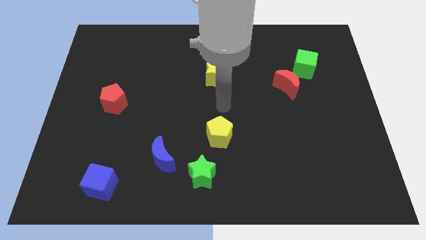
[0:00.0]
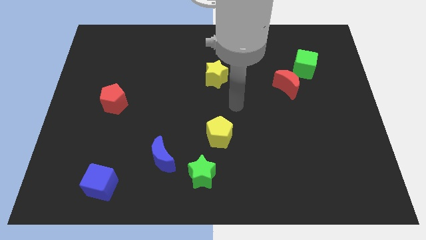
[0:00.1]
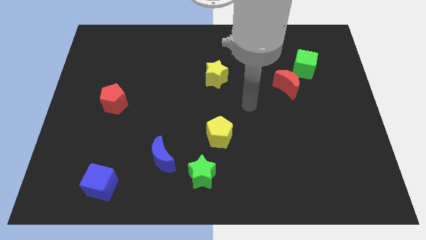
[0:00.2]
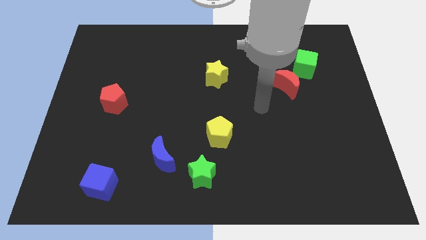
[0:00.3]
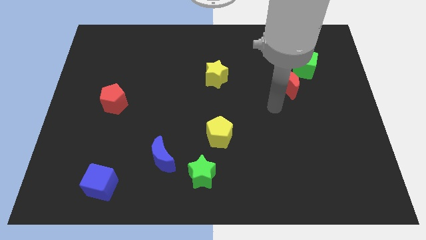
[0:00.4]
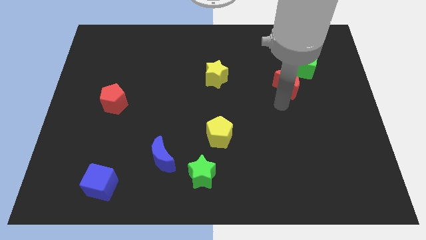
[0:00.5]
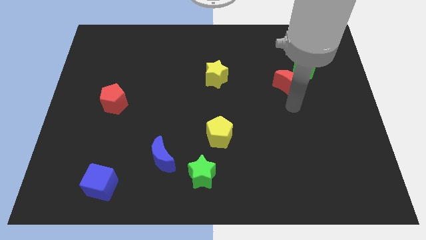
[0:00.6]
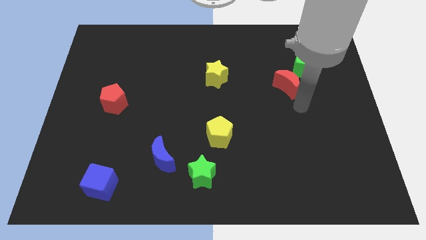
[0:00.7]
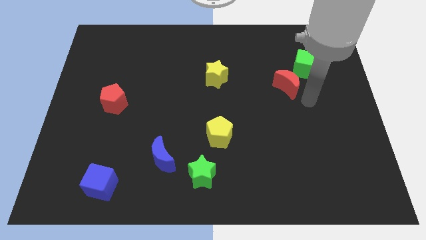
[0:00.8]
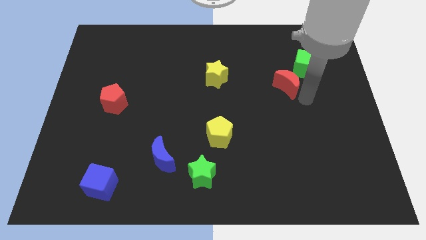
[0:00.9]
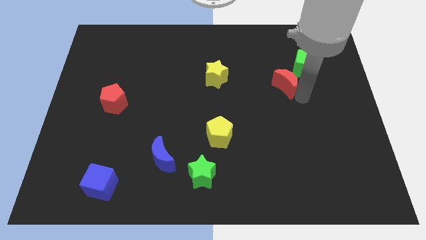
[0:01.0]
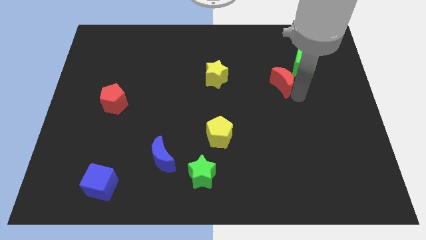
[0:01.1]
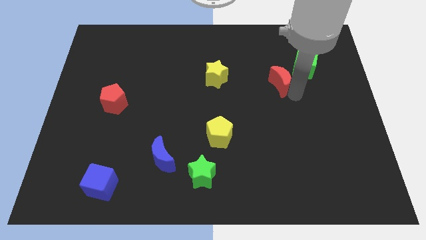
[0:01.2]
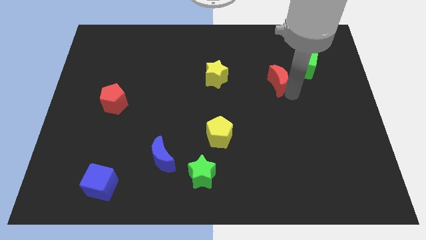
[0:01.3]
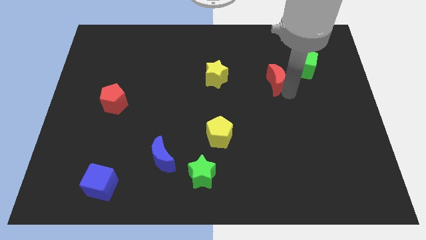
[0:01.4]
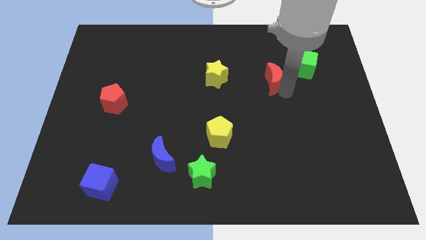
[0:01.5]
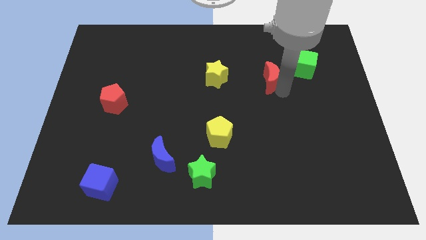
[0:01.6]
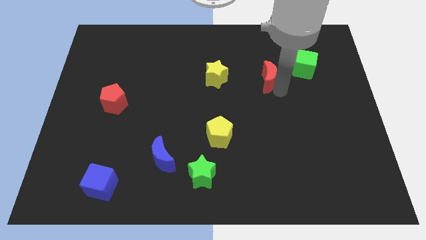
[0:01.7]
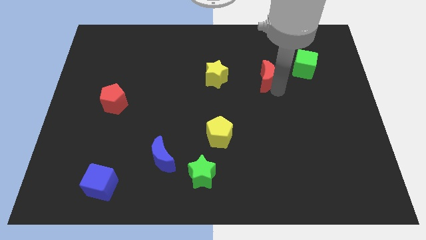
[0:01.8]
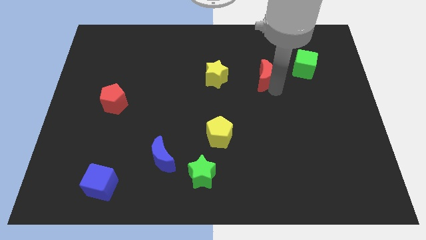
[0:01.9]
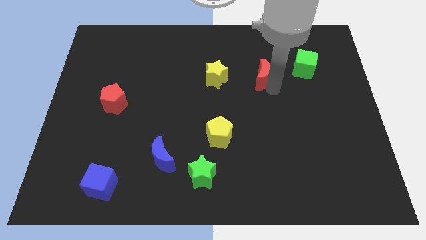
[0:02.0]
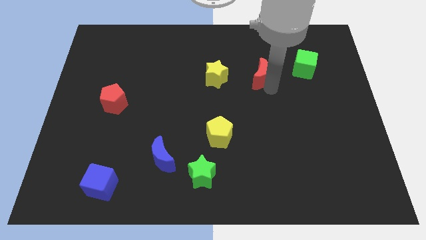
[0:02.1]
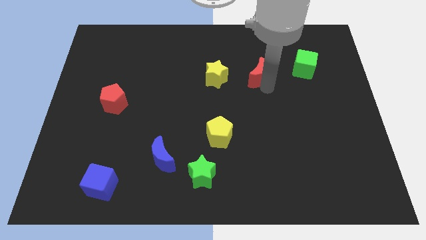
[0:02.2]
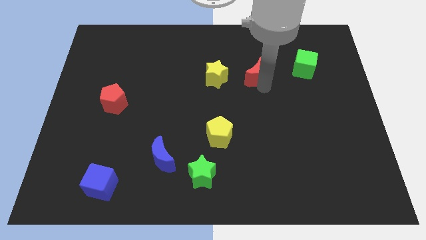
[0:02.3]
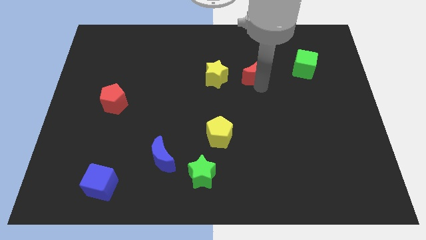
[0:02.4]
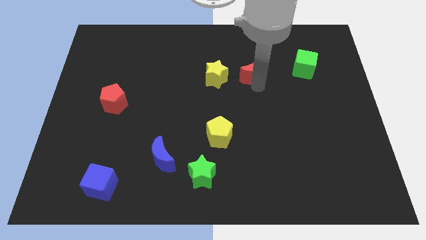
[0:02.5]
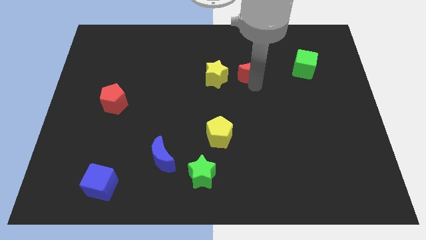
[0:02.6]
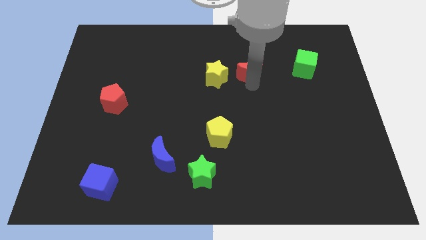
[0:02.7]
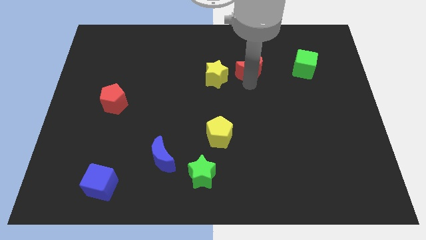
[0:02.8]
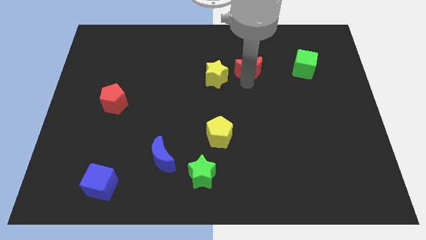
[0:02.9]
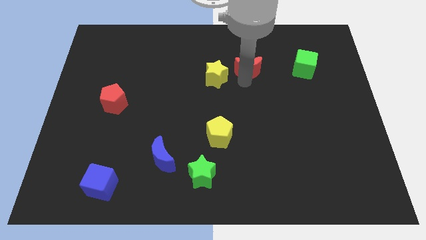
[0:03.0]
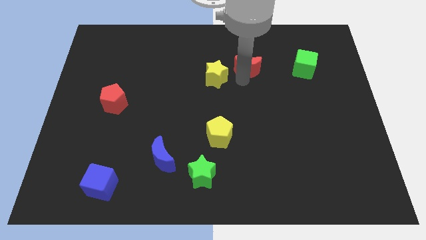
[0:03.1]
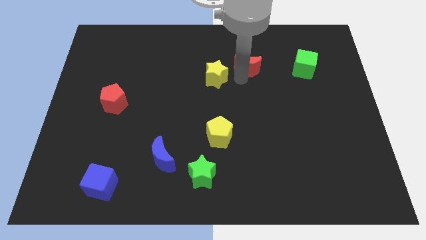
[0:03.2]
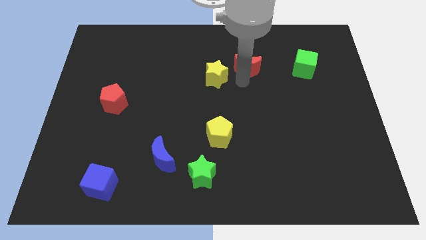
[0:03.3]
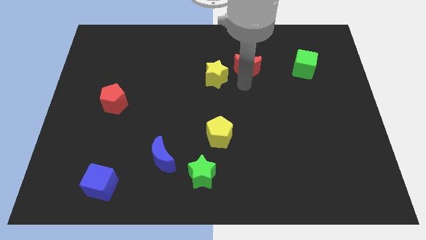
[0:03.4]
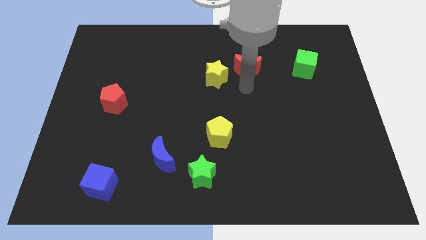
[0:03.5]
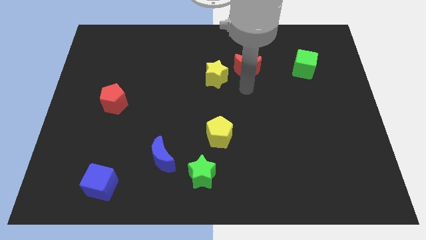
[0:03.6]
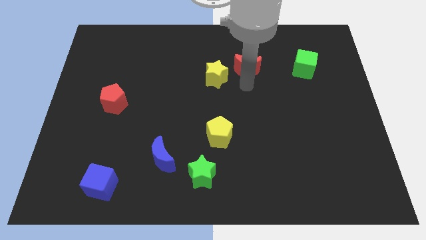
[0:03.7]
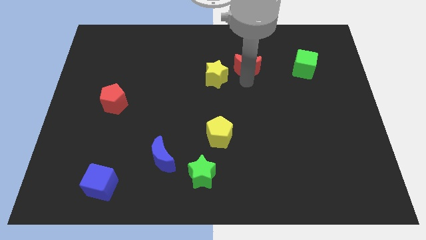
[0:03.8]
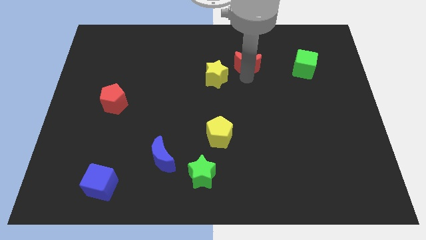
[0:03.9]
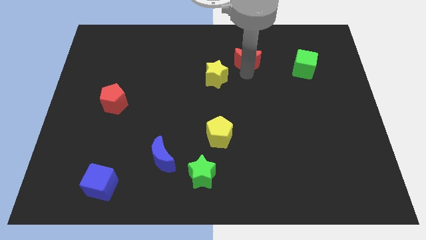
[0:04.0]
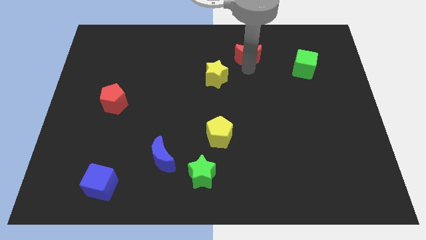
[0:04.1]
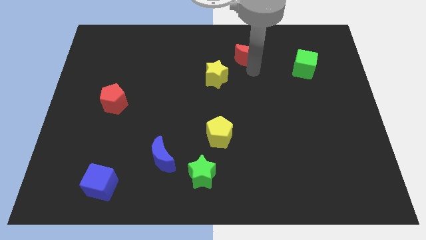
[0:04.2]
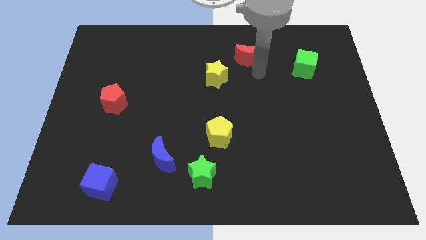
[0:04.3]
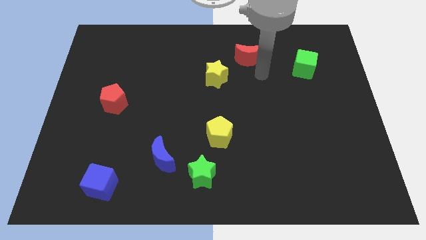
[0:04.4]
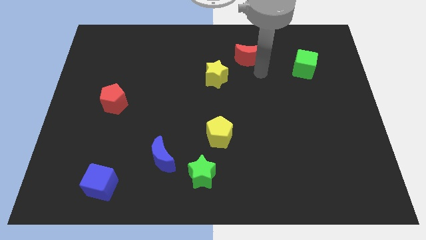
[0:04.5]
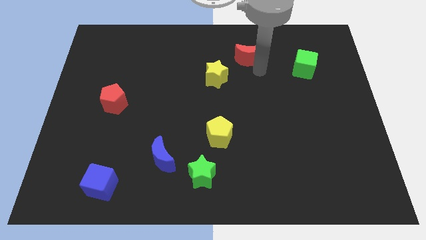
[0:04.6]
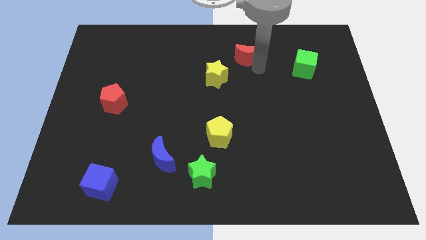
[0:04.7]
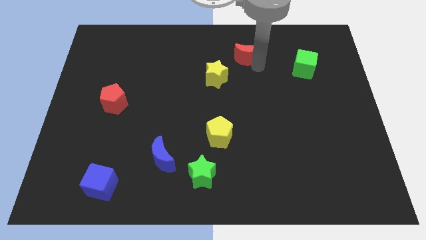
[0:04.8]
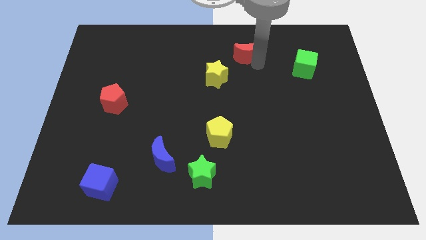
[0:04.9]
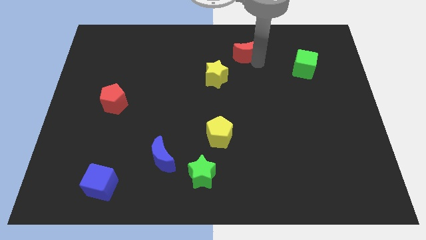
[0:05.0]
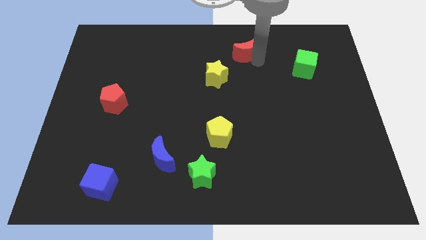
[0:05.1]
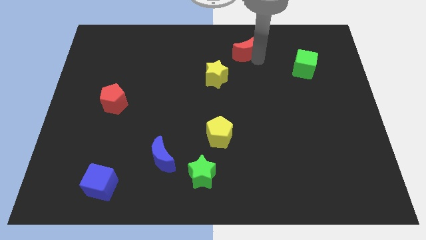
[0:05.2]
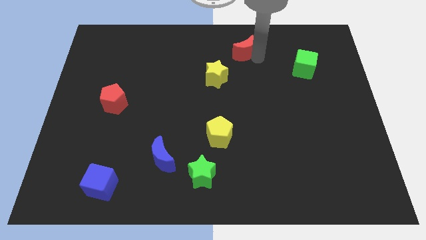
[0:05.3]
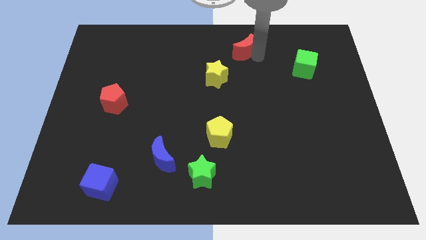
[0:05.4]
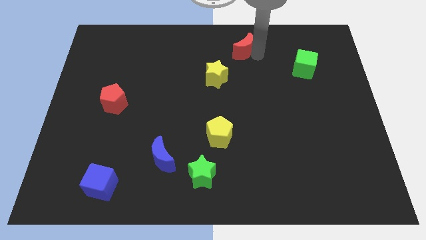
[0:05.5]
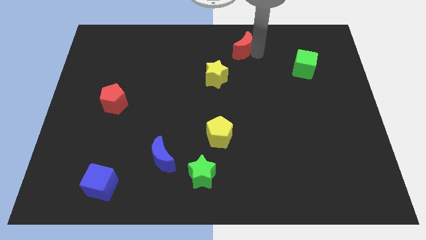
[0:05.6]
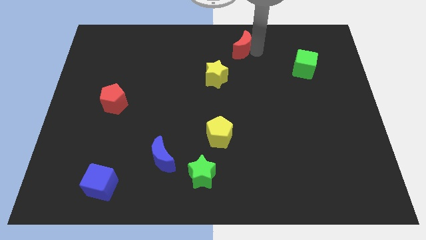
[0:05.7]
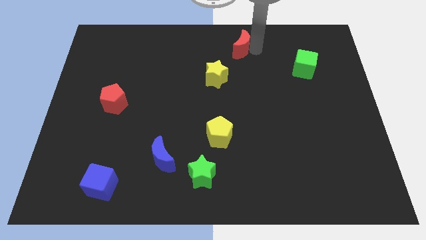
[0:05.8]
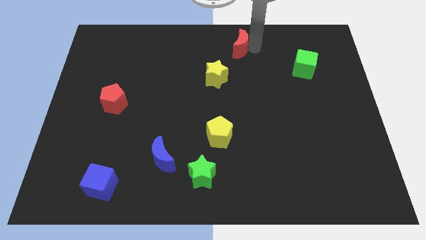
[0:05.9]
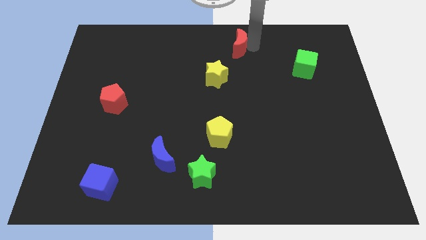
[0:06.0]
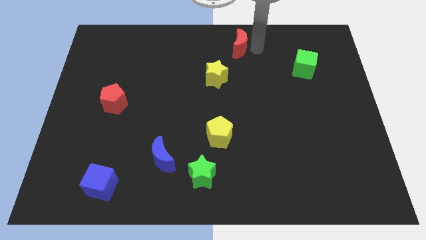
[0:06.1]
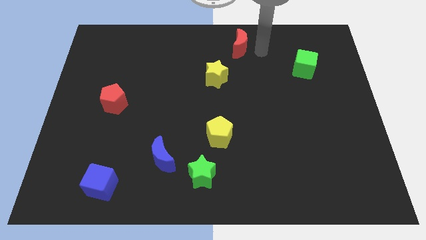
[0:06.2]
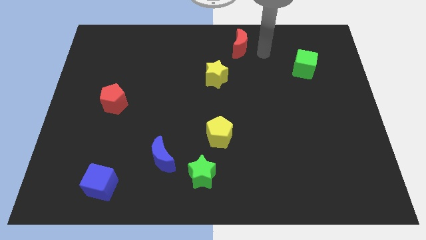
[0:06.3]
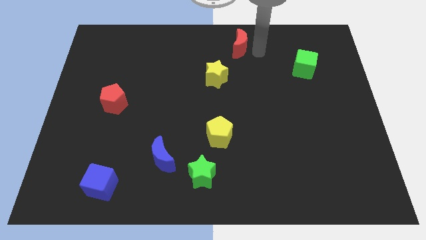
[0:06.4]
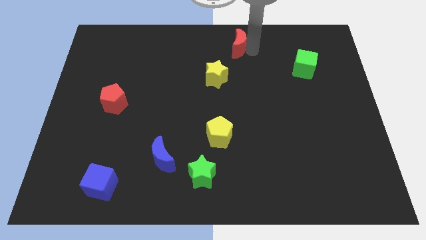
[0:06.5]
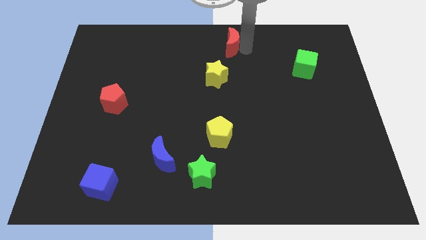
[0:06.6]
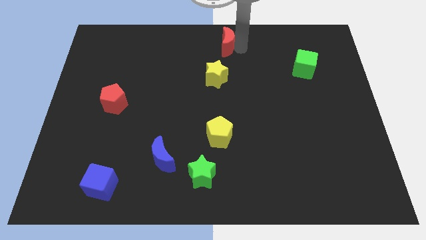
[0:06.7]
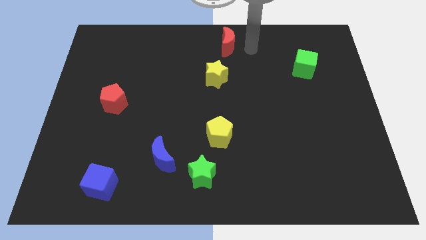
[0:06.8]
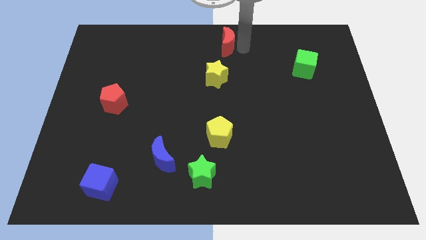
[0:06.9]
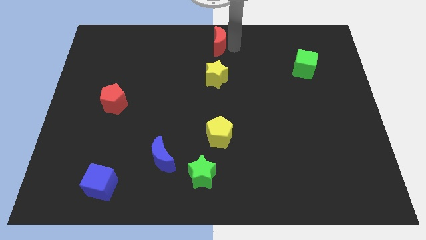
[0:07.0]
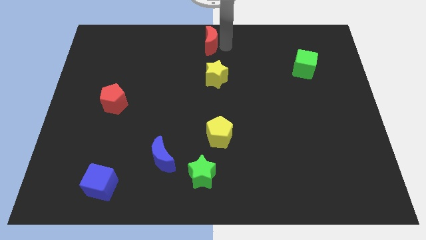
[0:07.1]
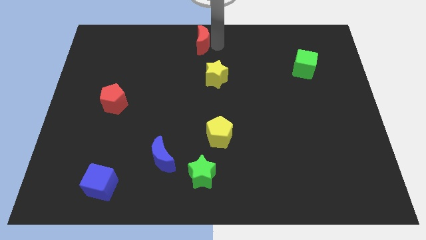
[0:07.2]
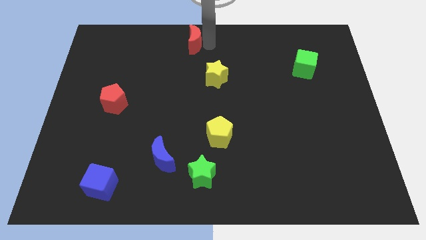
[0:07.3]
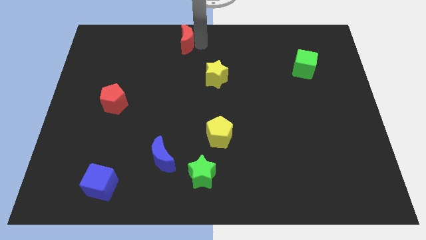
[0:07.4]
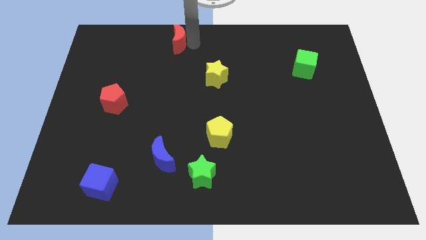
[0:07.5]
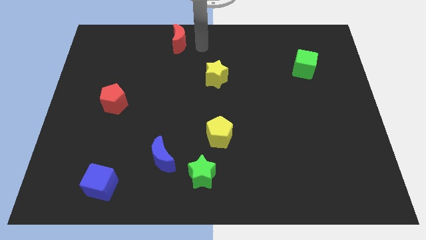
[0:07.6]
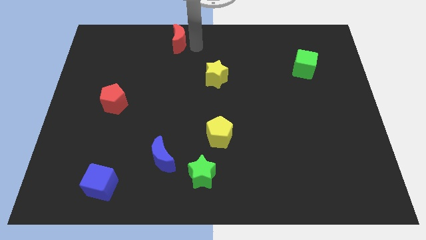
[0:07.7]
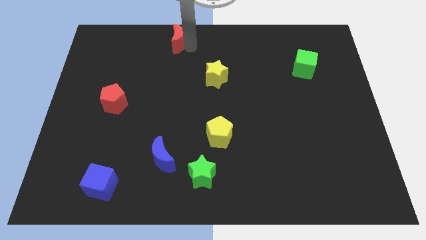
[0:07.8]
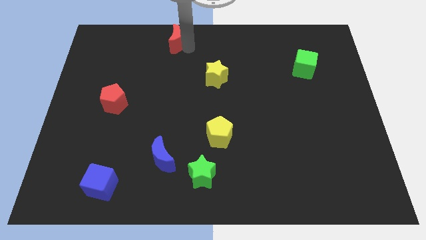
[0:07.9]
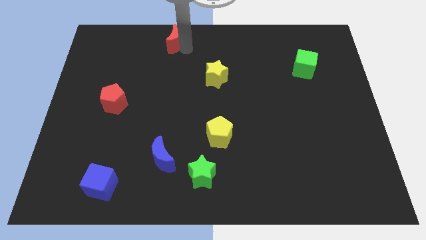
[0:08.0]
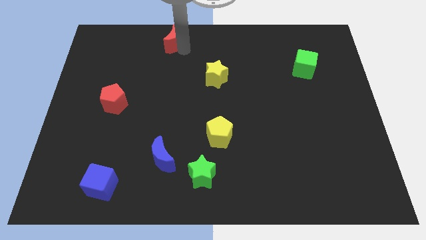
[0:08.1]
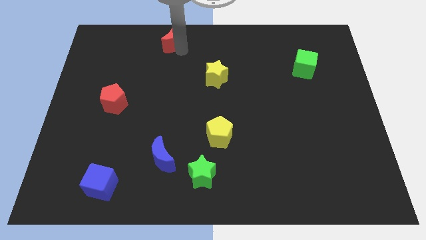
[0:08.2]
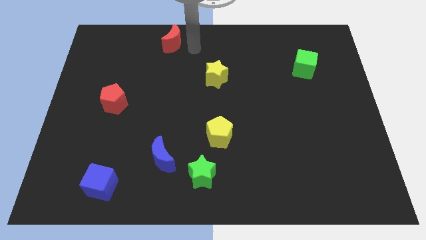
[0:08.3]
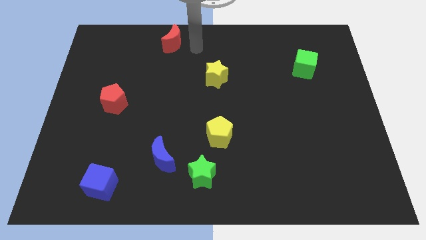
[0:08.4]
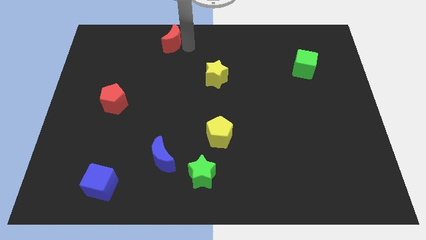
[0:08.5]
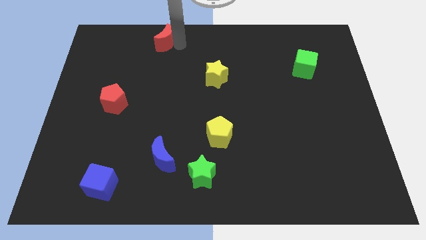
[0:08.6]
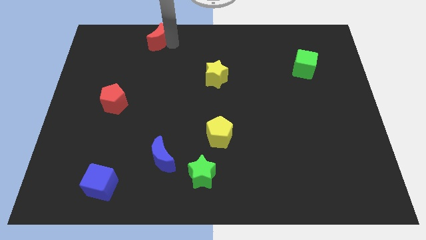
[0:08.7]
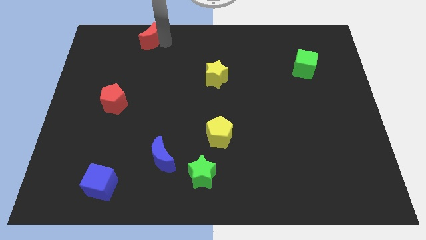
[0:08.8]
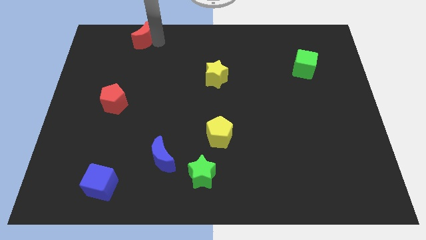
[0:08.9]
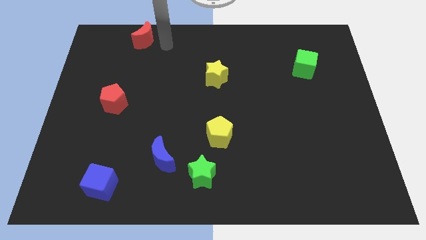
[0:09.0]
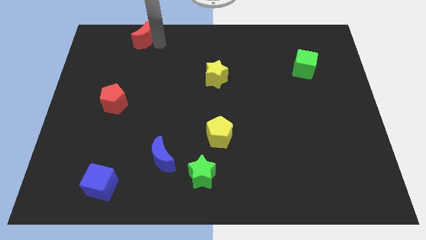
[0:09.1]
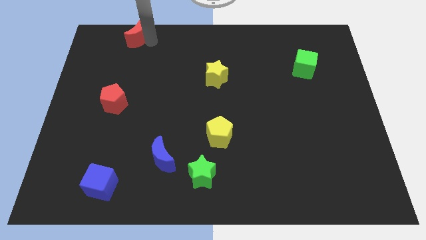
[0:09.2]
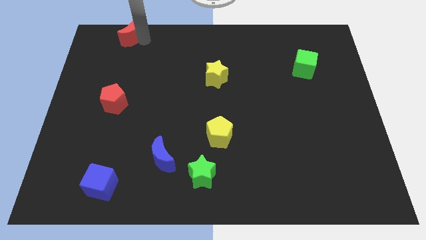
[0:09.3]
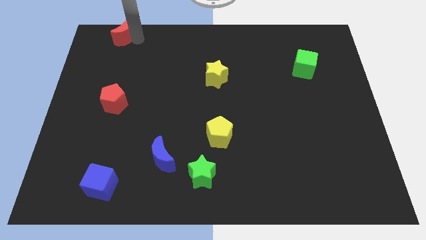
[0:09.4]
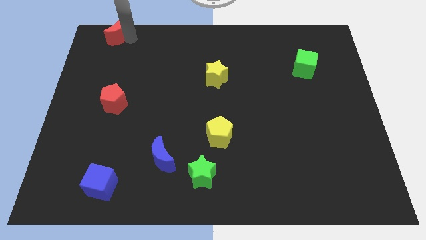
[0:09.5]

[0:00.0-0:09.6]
push the red moon to the top left corner
